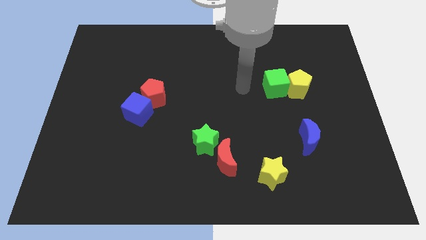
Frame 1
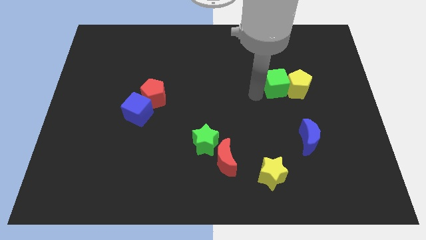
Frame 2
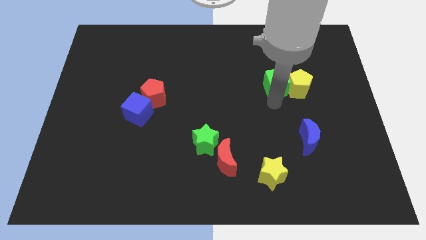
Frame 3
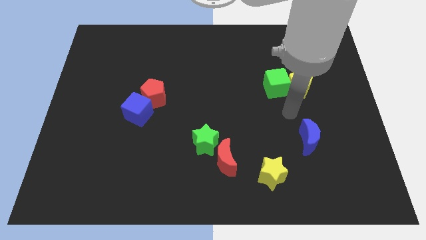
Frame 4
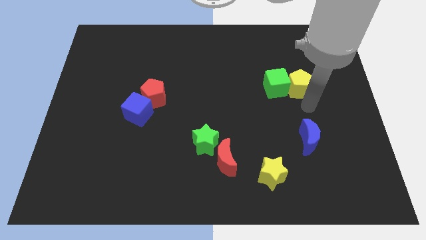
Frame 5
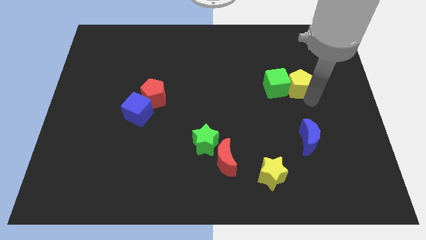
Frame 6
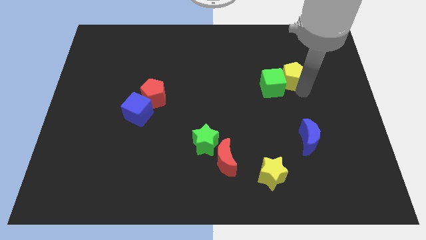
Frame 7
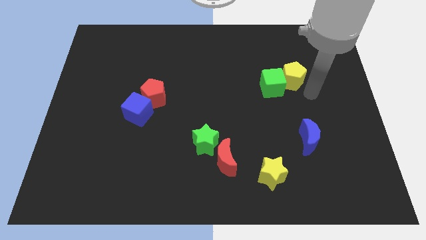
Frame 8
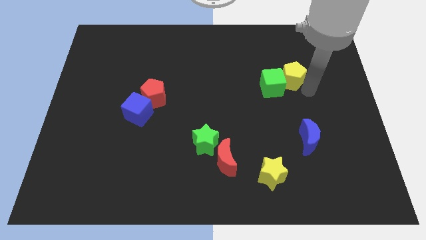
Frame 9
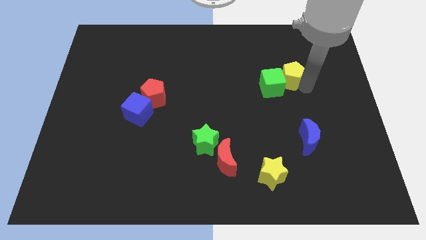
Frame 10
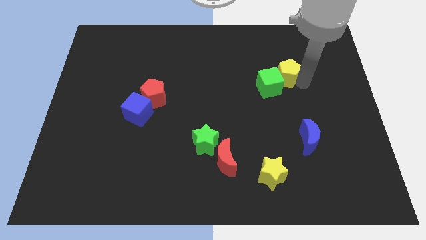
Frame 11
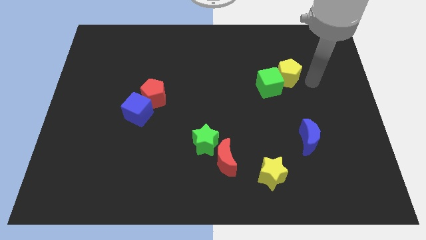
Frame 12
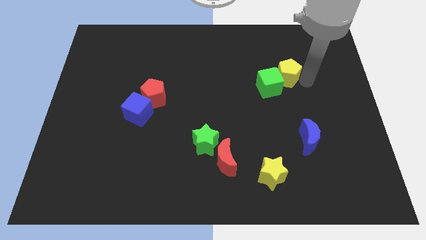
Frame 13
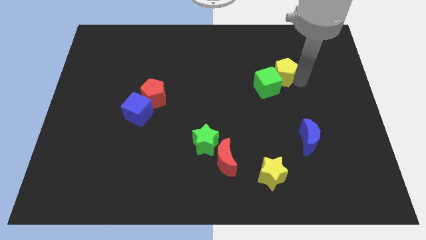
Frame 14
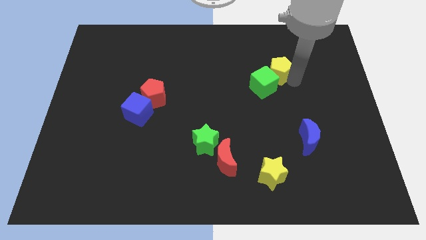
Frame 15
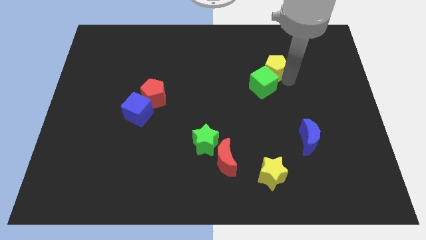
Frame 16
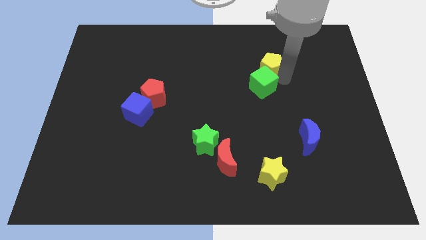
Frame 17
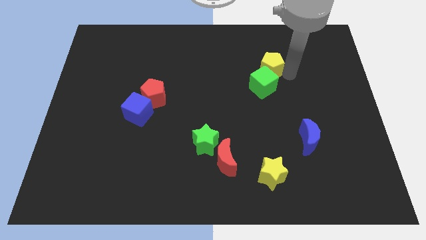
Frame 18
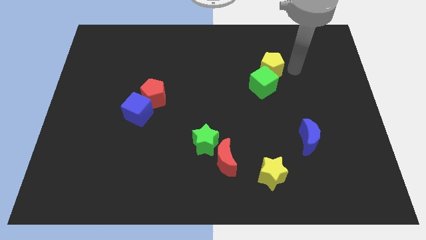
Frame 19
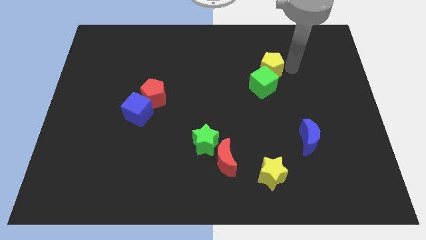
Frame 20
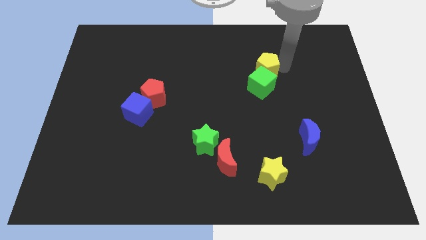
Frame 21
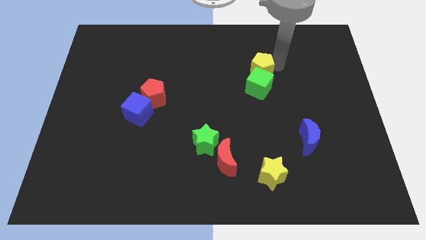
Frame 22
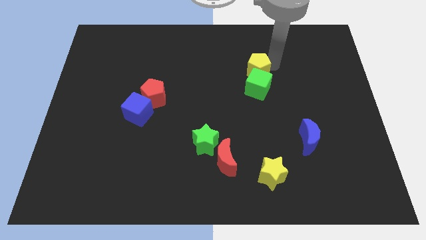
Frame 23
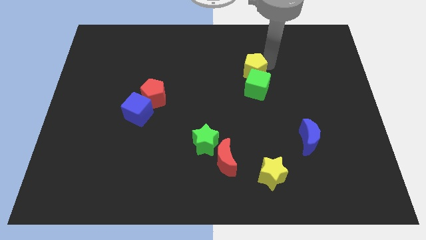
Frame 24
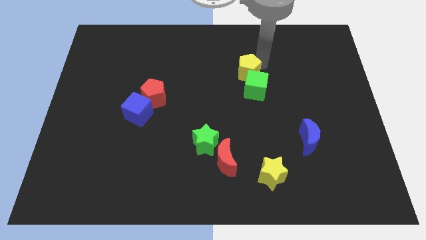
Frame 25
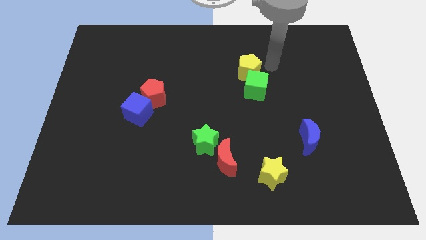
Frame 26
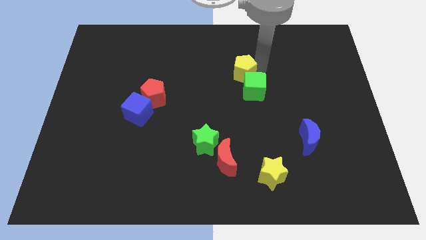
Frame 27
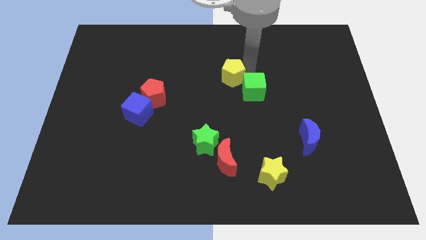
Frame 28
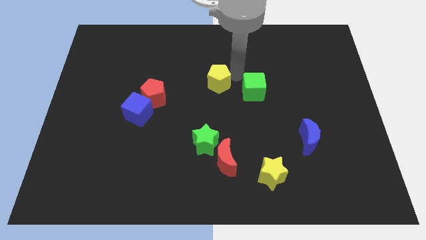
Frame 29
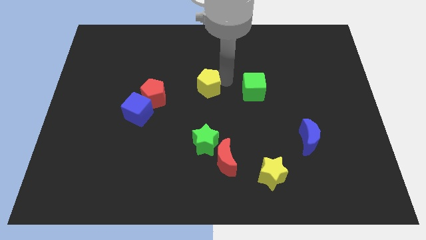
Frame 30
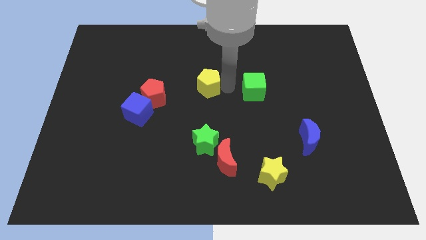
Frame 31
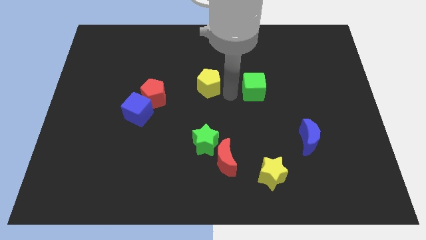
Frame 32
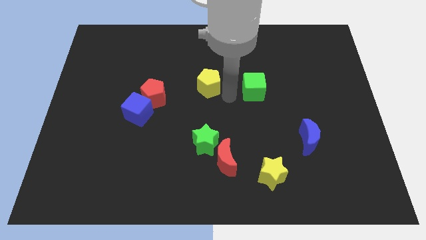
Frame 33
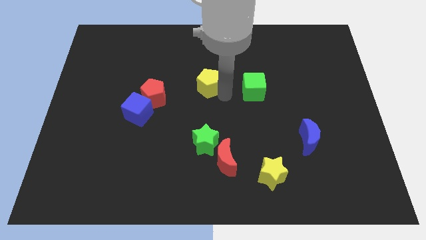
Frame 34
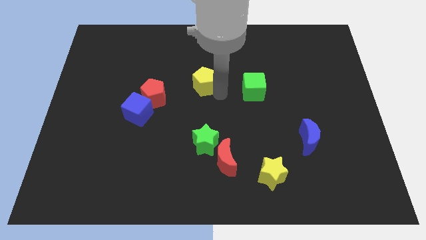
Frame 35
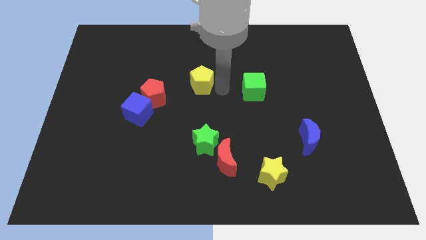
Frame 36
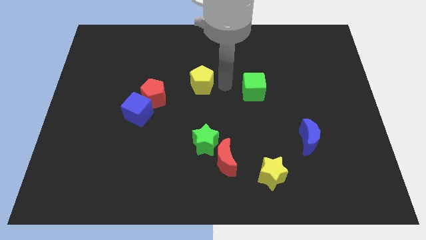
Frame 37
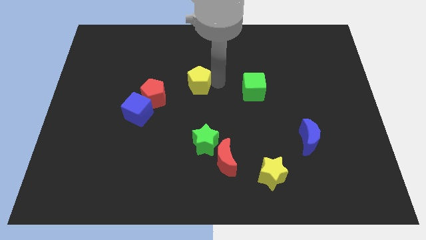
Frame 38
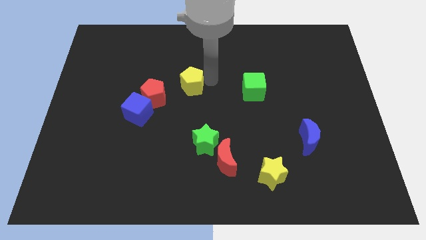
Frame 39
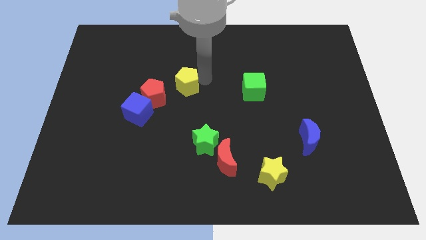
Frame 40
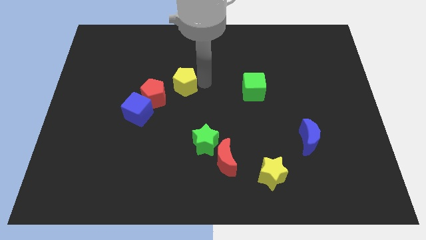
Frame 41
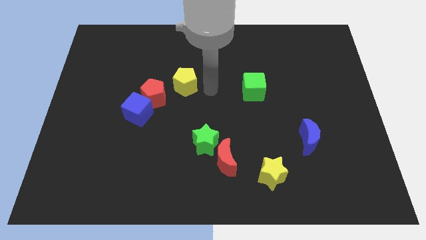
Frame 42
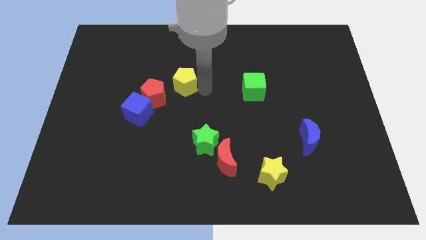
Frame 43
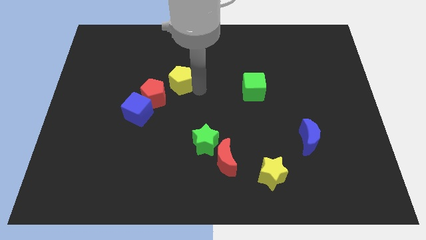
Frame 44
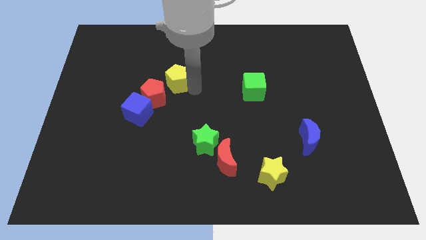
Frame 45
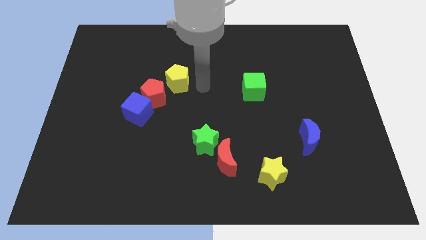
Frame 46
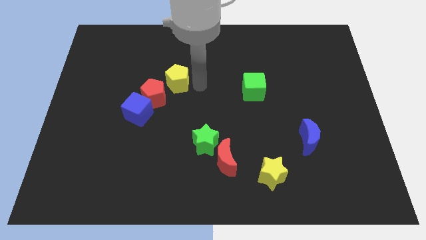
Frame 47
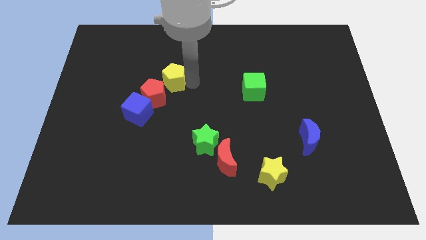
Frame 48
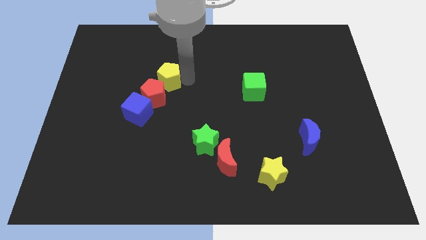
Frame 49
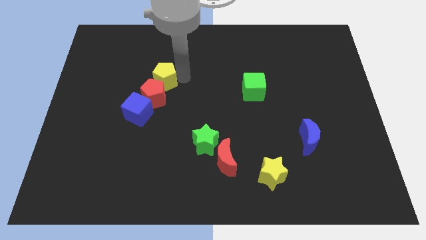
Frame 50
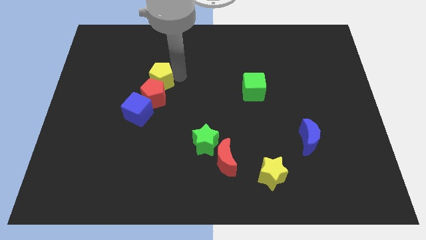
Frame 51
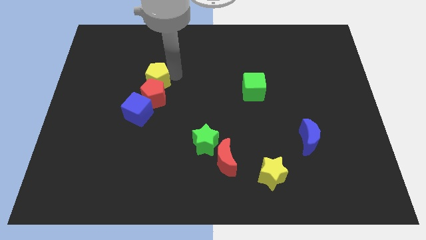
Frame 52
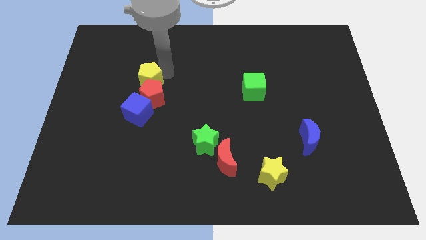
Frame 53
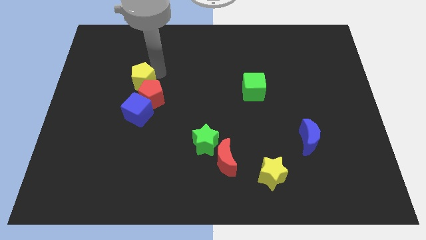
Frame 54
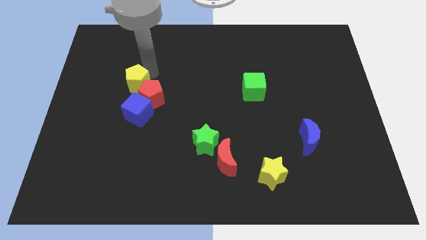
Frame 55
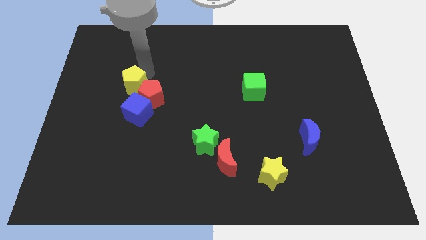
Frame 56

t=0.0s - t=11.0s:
push the yellow pentagon left of the red pentagon

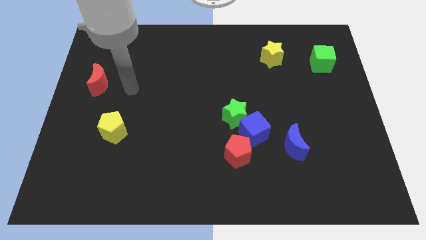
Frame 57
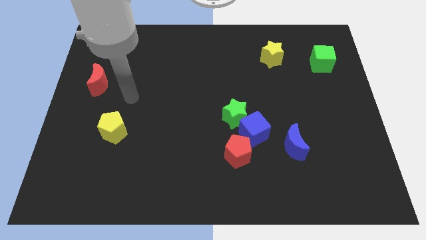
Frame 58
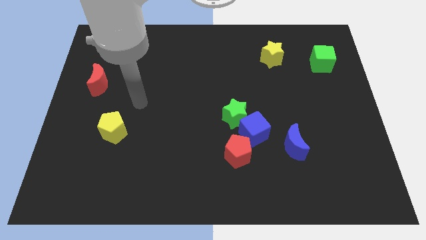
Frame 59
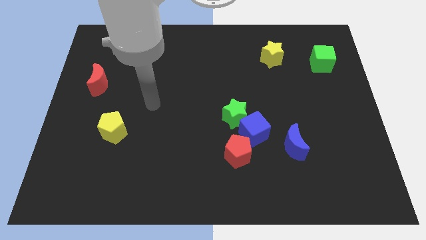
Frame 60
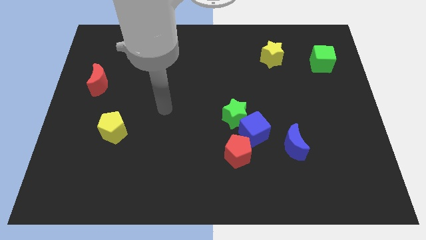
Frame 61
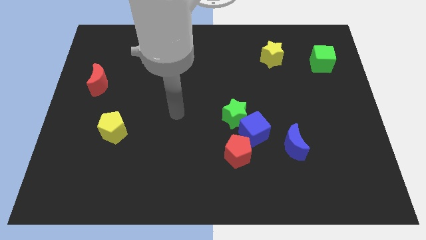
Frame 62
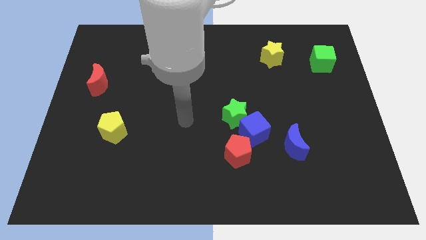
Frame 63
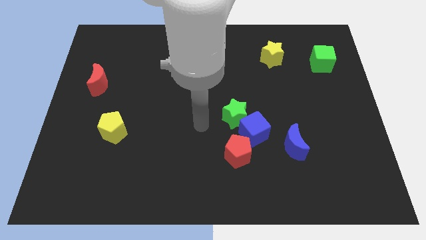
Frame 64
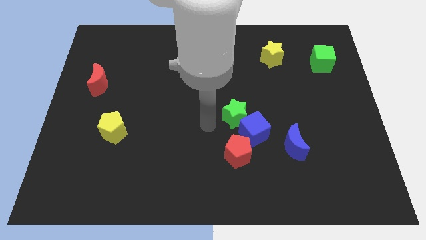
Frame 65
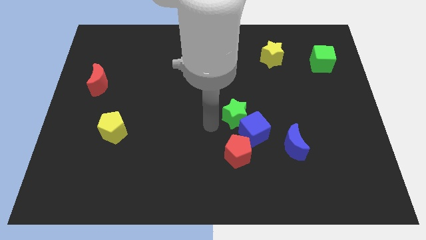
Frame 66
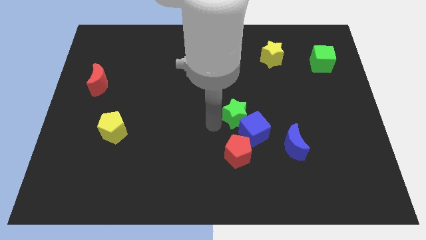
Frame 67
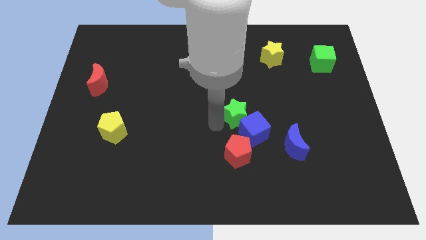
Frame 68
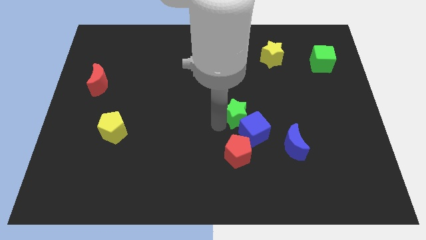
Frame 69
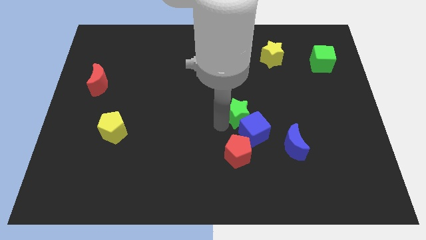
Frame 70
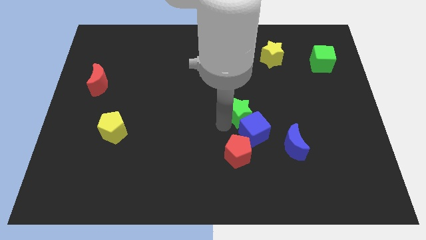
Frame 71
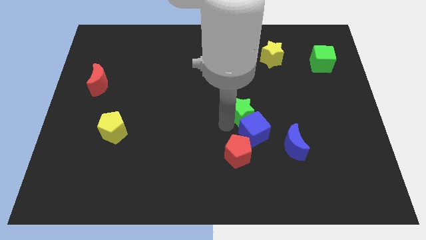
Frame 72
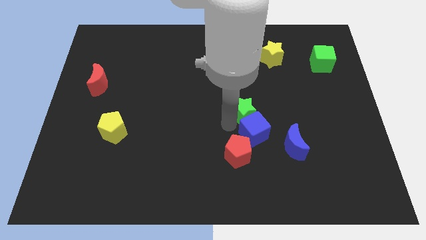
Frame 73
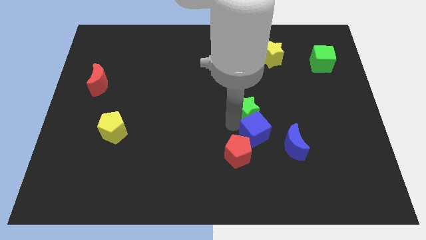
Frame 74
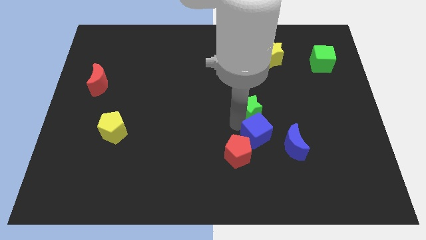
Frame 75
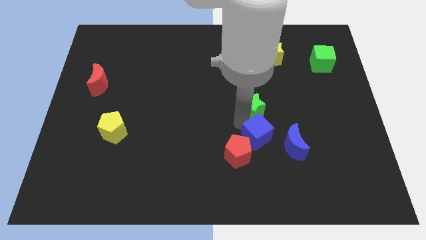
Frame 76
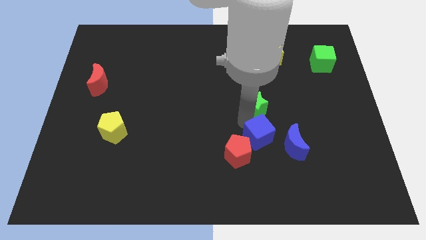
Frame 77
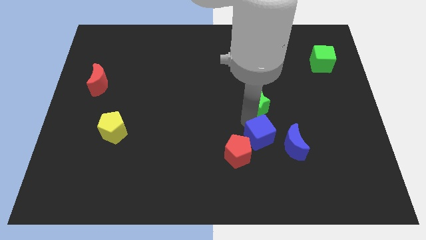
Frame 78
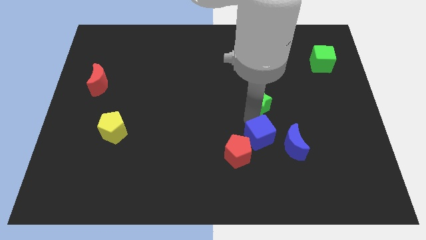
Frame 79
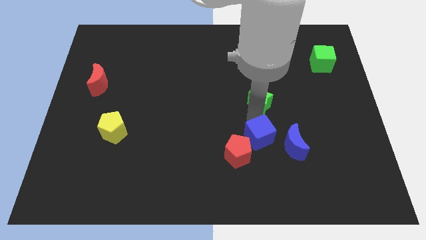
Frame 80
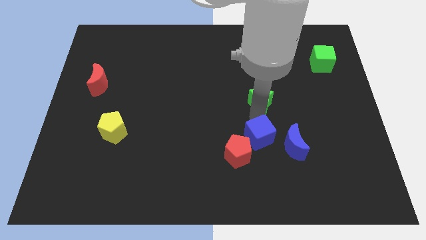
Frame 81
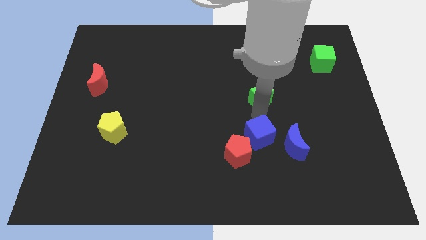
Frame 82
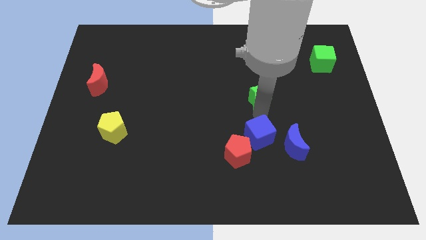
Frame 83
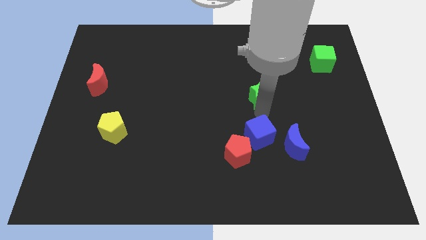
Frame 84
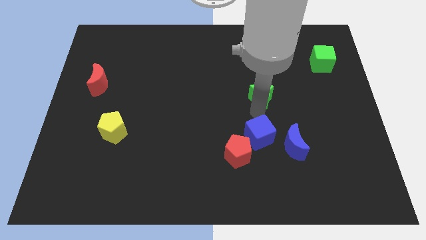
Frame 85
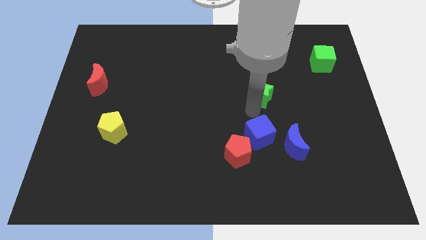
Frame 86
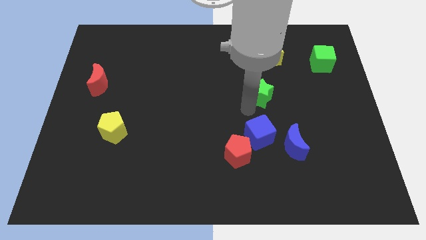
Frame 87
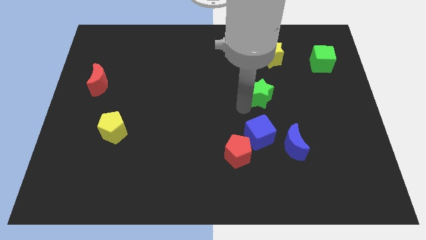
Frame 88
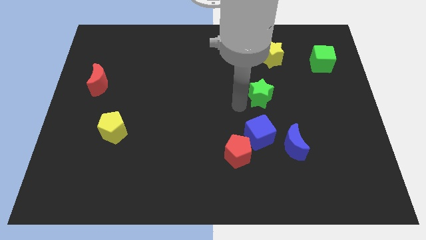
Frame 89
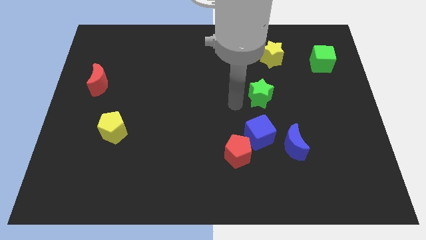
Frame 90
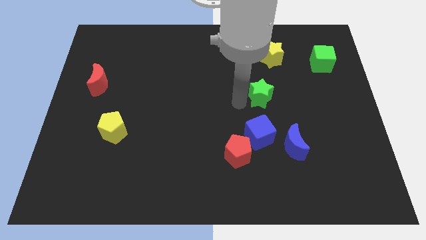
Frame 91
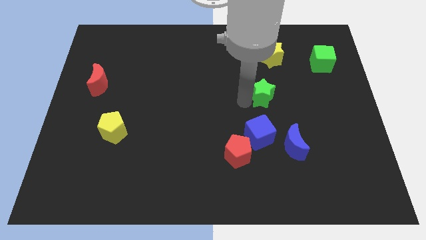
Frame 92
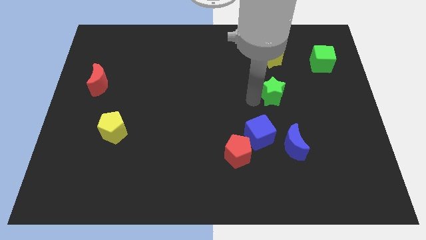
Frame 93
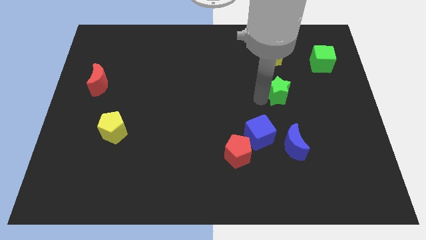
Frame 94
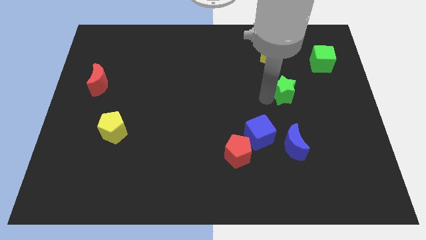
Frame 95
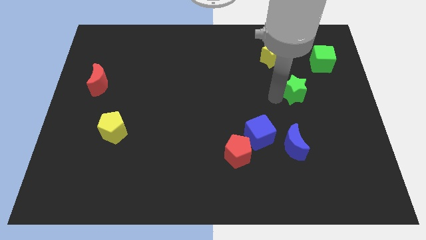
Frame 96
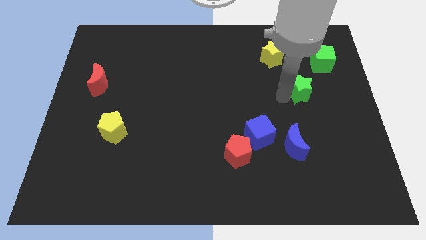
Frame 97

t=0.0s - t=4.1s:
push the green star to the bottom left side of the green cube
